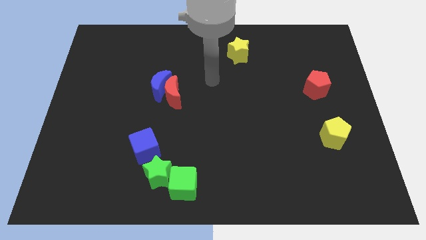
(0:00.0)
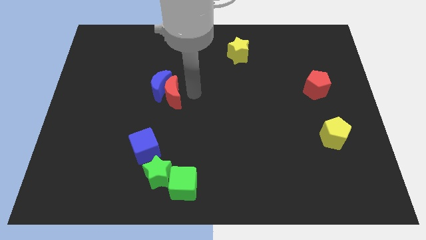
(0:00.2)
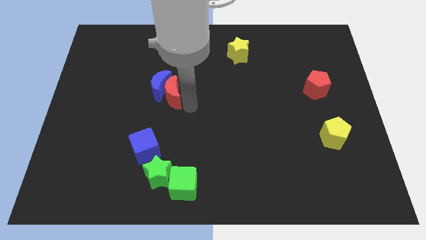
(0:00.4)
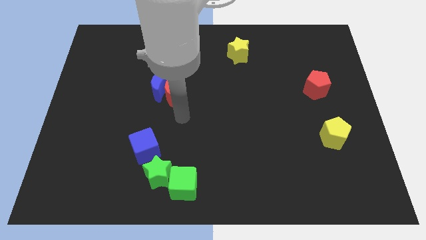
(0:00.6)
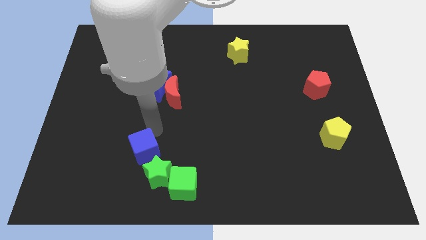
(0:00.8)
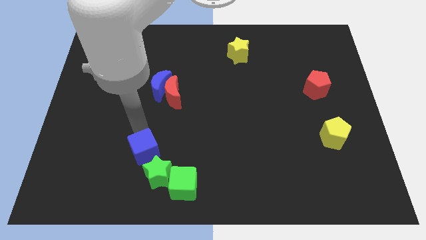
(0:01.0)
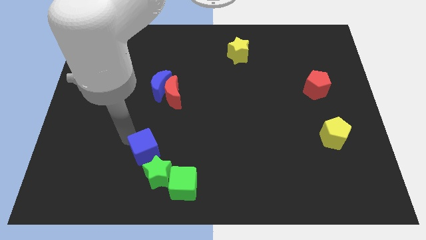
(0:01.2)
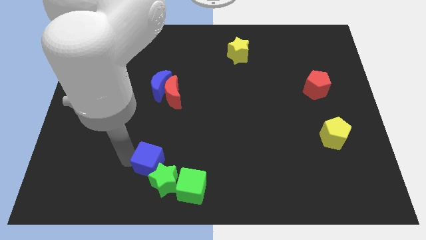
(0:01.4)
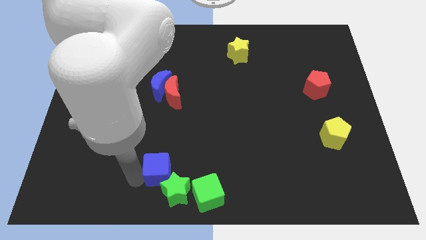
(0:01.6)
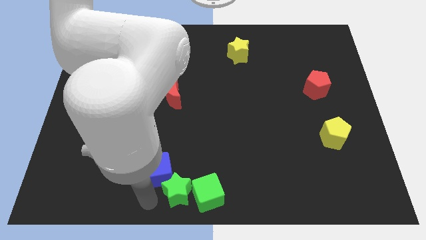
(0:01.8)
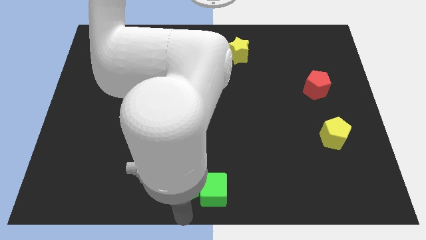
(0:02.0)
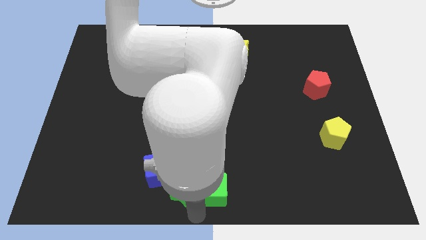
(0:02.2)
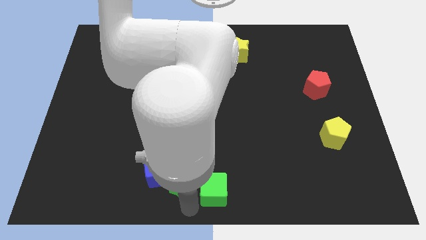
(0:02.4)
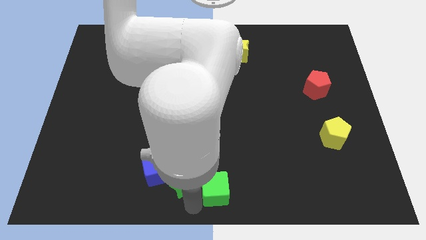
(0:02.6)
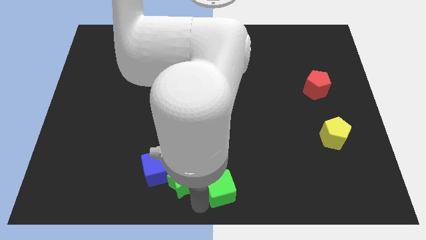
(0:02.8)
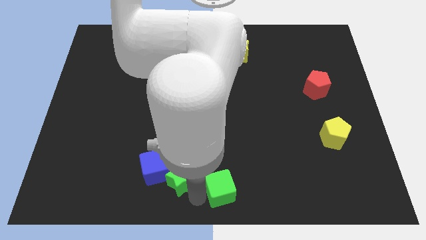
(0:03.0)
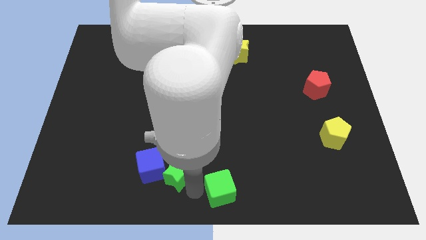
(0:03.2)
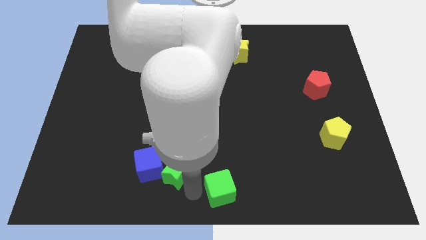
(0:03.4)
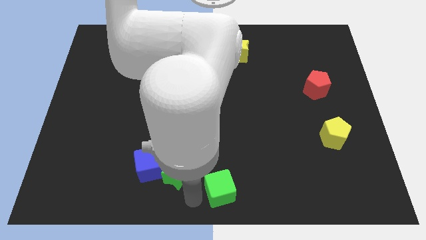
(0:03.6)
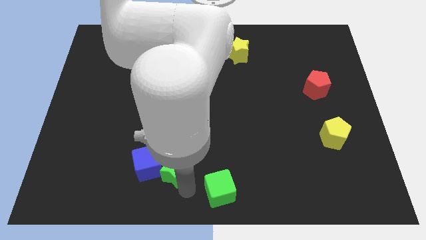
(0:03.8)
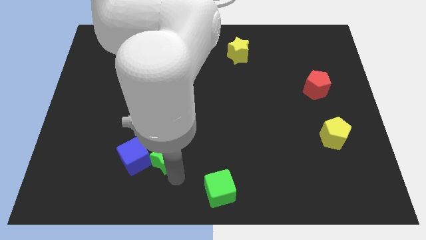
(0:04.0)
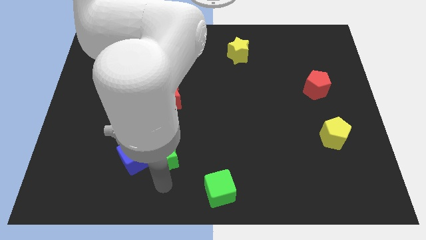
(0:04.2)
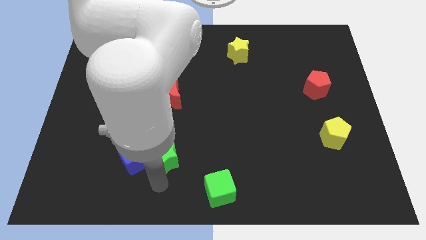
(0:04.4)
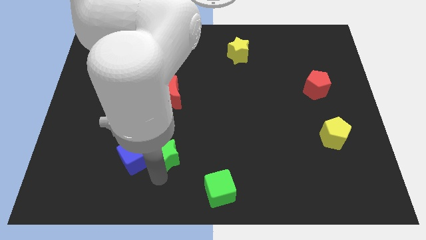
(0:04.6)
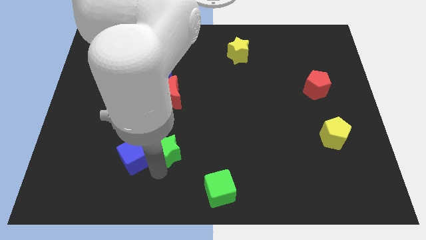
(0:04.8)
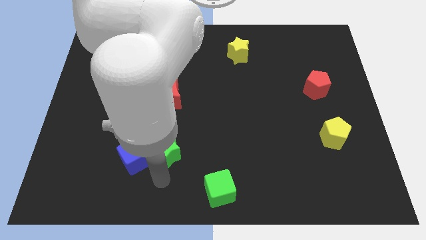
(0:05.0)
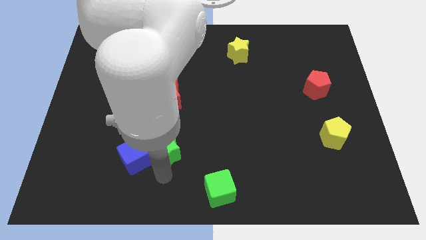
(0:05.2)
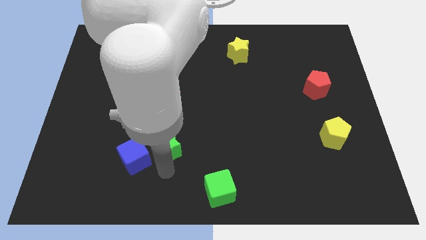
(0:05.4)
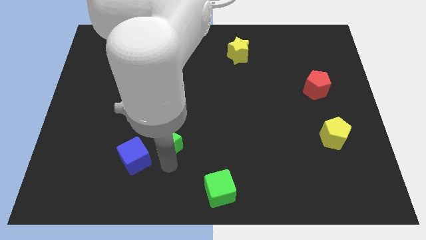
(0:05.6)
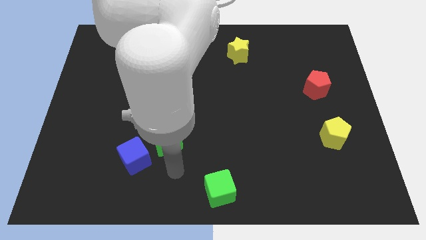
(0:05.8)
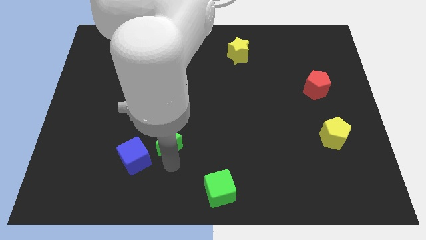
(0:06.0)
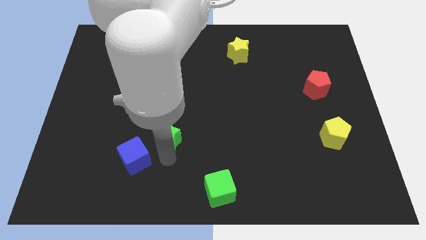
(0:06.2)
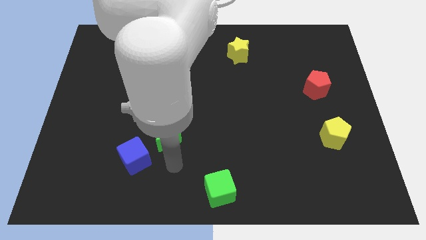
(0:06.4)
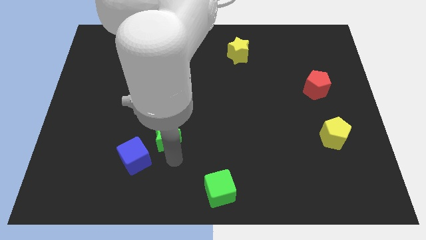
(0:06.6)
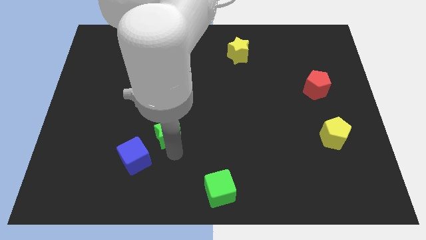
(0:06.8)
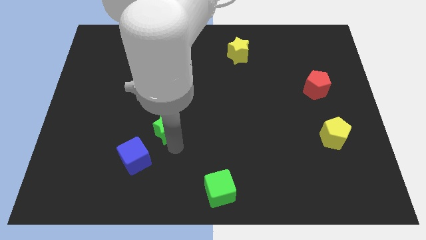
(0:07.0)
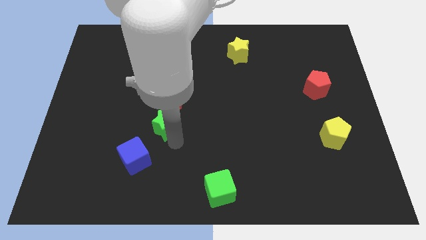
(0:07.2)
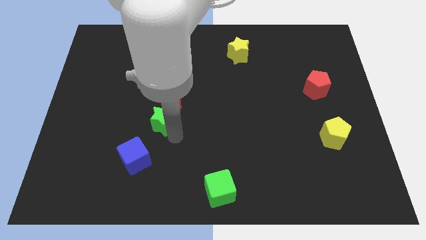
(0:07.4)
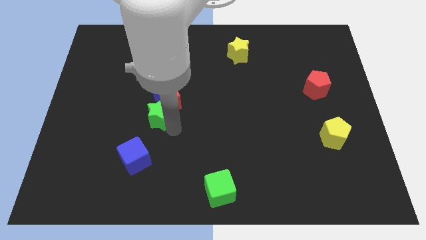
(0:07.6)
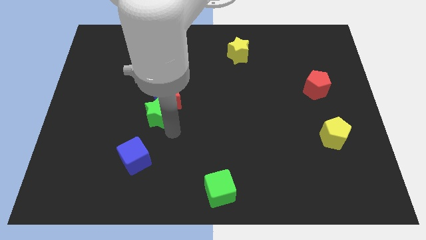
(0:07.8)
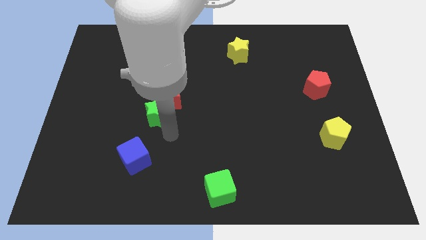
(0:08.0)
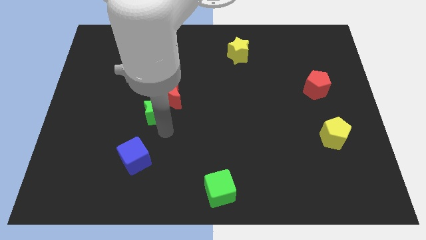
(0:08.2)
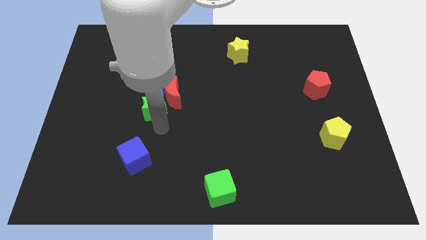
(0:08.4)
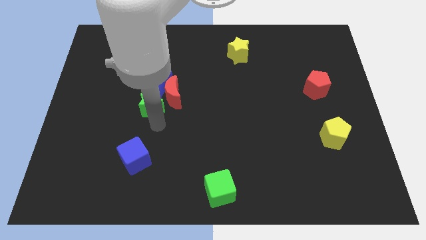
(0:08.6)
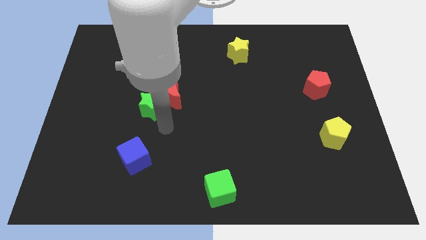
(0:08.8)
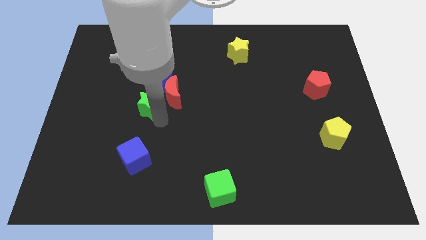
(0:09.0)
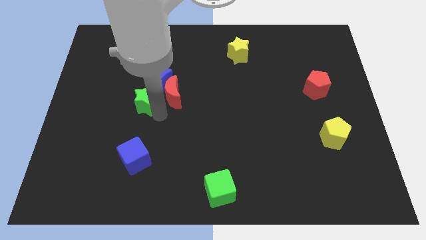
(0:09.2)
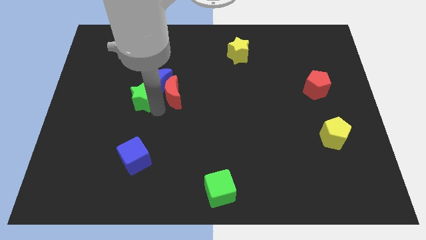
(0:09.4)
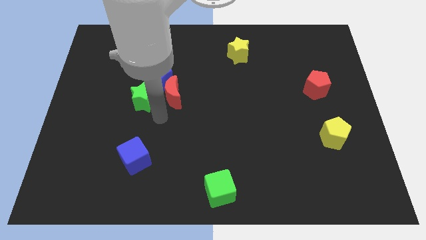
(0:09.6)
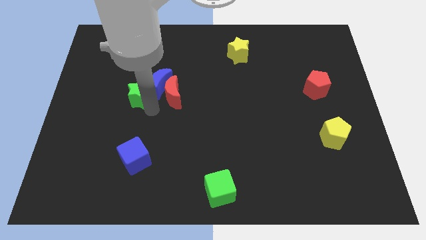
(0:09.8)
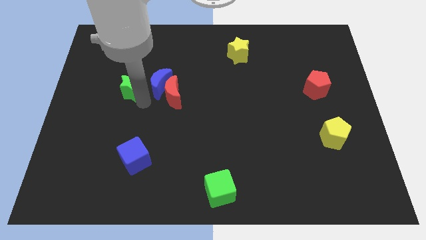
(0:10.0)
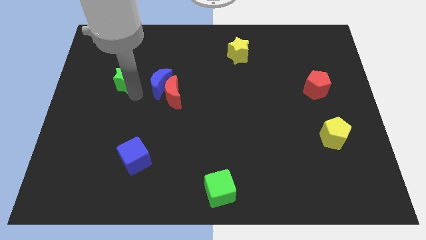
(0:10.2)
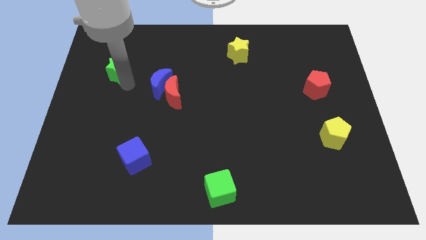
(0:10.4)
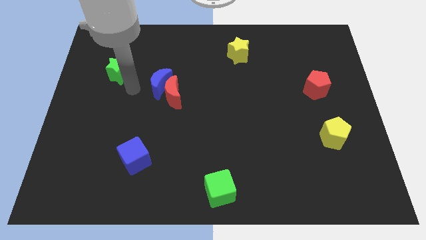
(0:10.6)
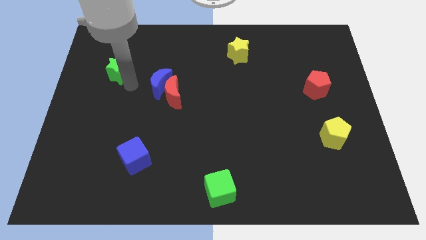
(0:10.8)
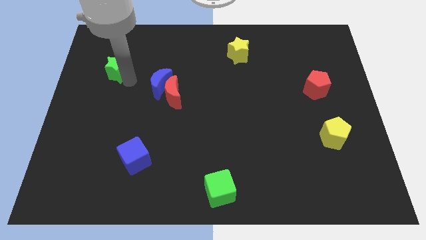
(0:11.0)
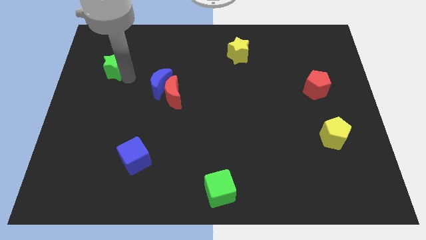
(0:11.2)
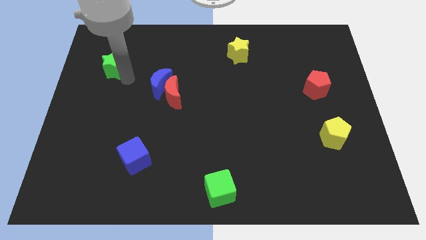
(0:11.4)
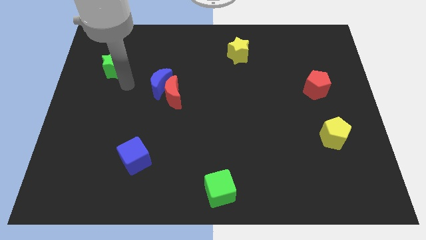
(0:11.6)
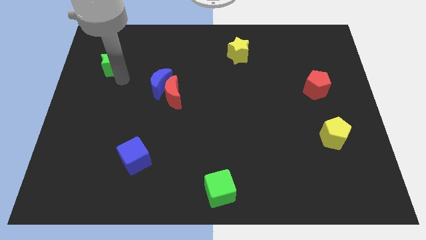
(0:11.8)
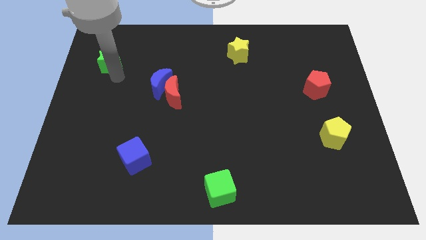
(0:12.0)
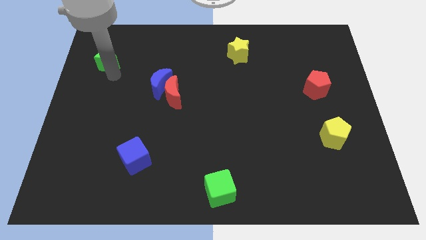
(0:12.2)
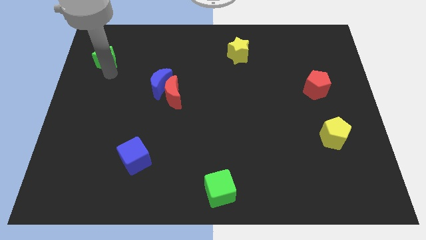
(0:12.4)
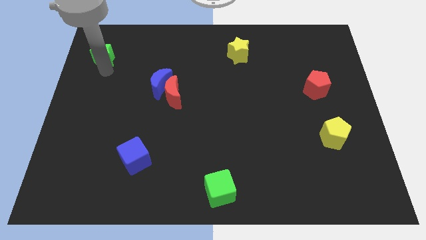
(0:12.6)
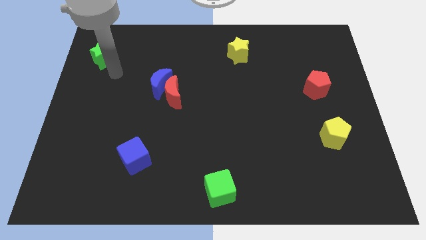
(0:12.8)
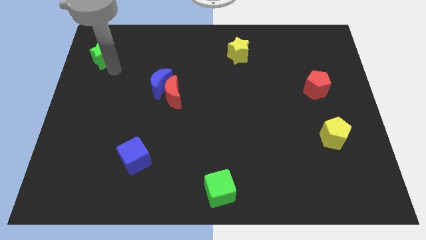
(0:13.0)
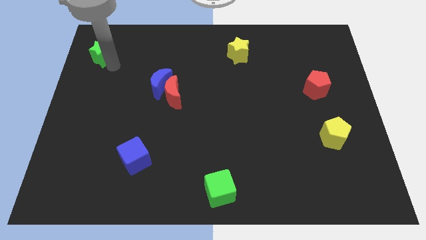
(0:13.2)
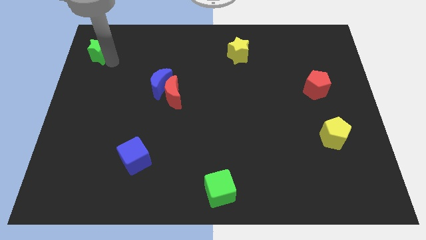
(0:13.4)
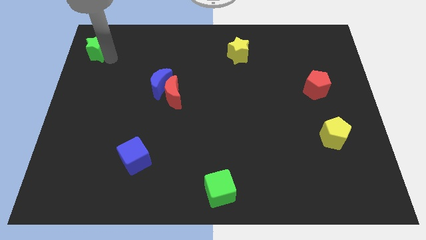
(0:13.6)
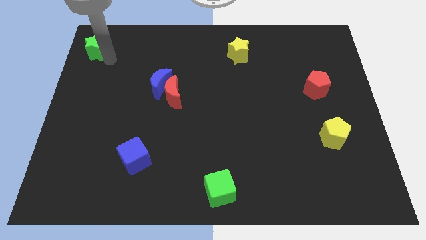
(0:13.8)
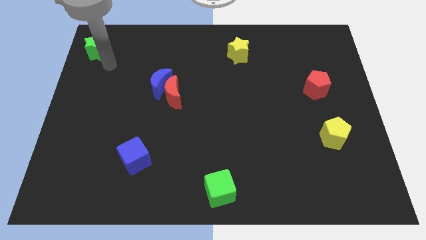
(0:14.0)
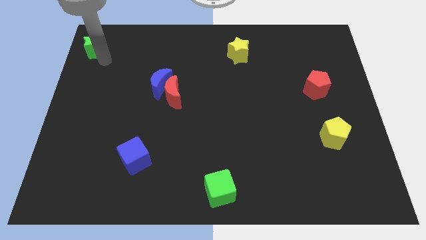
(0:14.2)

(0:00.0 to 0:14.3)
slide the green star to the top left corner
